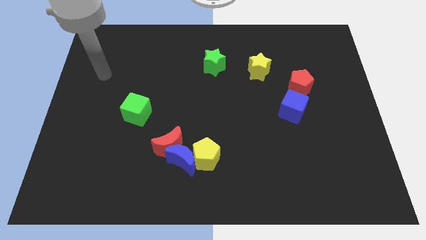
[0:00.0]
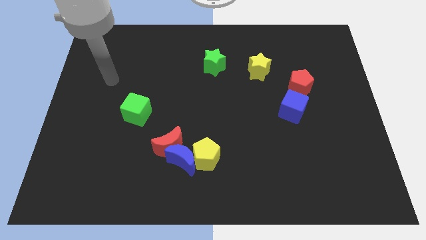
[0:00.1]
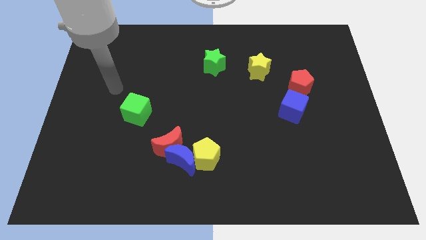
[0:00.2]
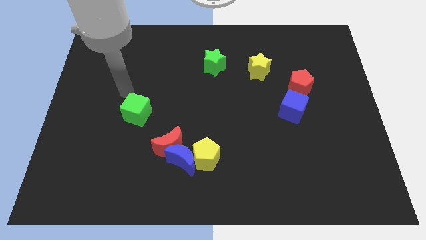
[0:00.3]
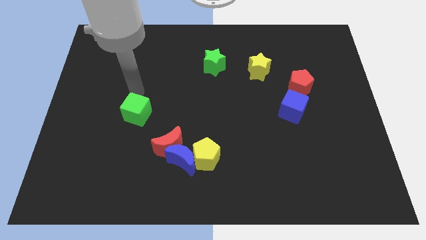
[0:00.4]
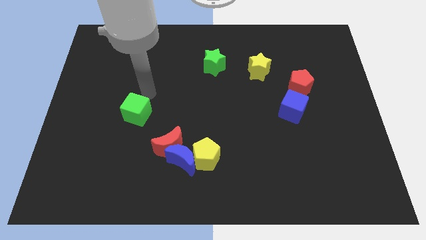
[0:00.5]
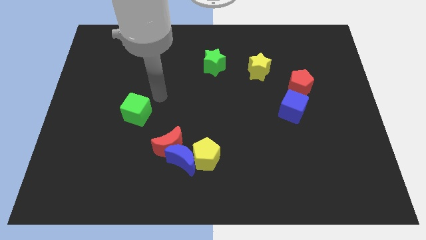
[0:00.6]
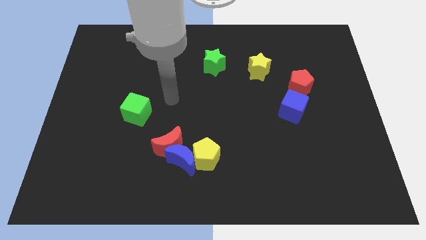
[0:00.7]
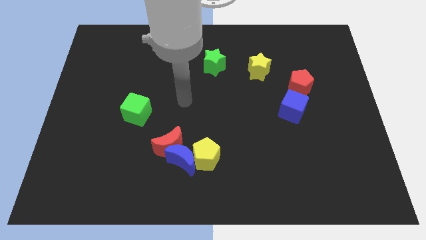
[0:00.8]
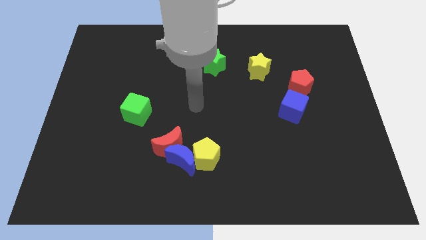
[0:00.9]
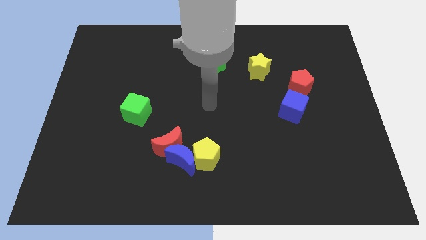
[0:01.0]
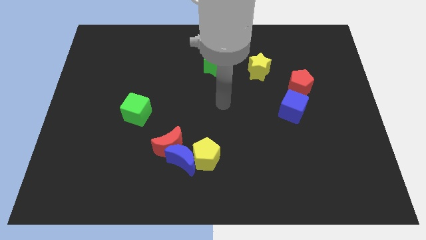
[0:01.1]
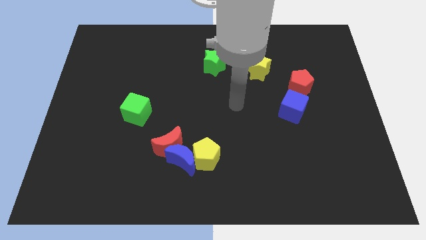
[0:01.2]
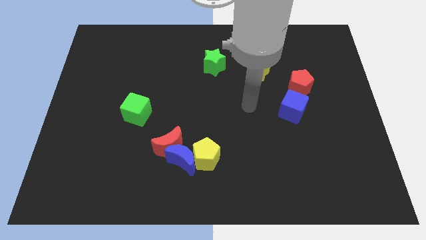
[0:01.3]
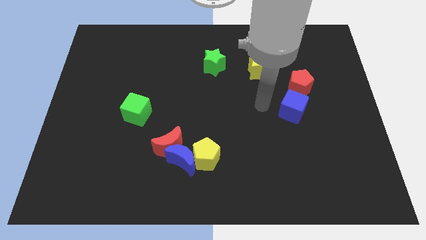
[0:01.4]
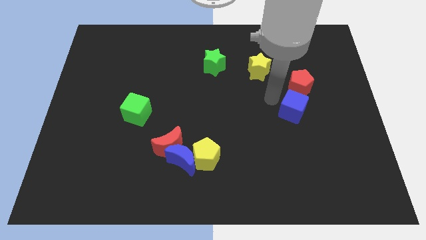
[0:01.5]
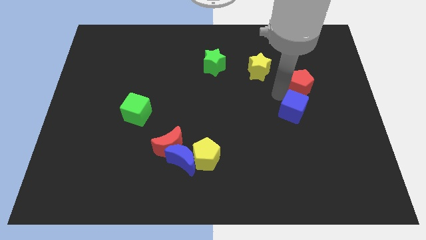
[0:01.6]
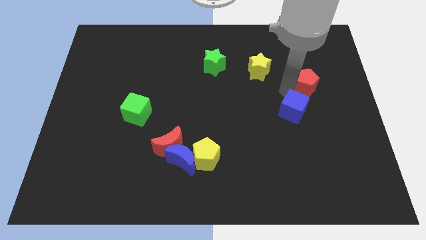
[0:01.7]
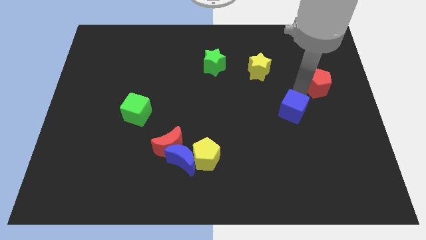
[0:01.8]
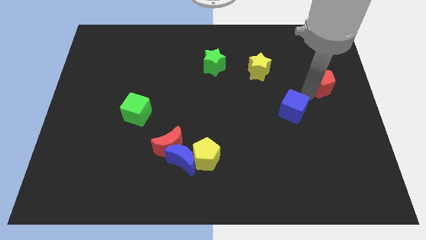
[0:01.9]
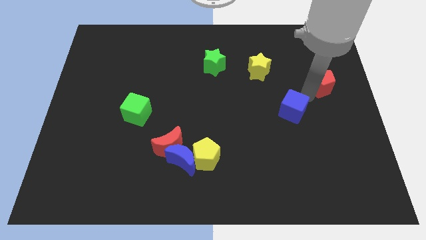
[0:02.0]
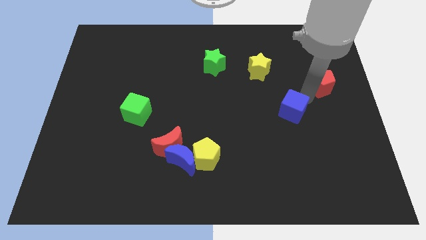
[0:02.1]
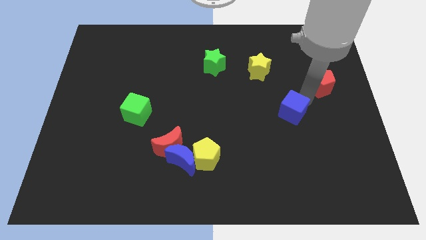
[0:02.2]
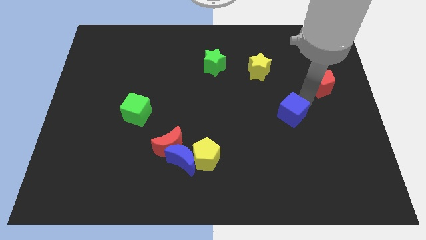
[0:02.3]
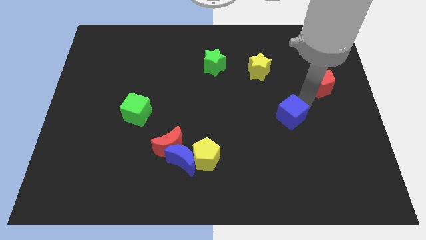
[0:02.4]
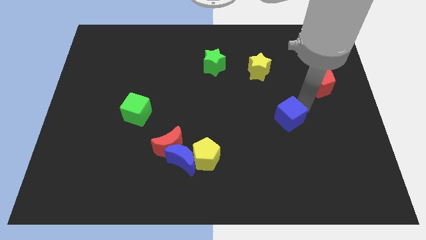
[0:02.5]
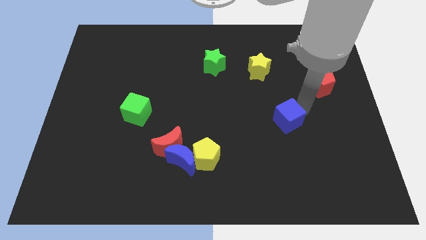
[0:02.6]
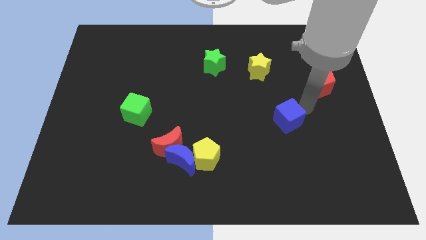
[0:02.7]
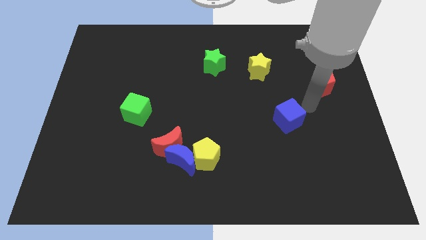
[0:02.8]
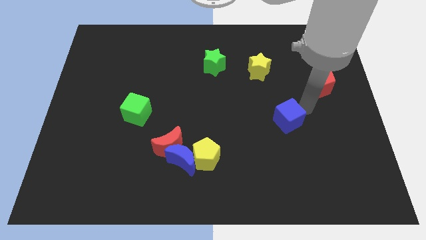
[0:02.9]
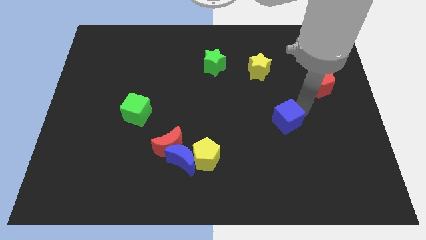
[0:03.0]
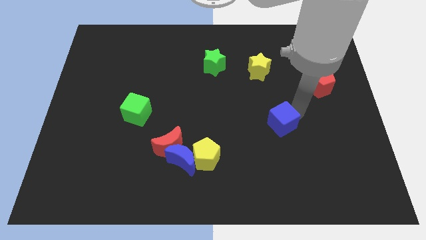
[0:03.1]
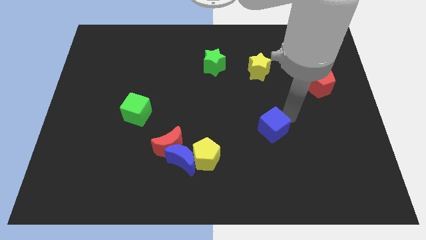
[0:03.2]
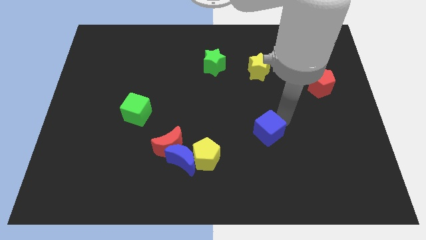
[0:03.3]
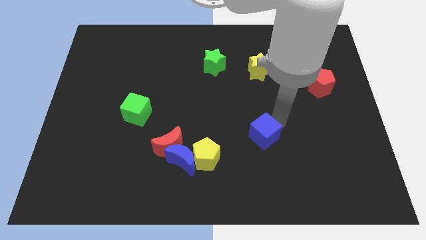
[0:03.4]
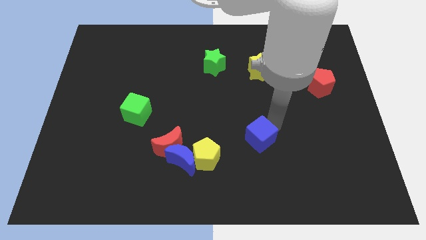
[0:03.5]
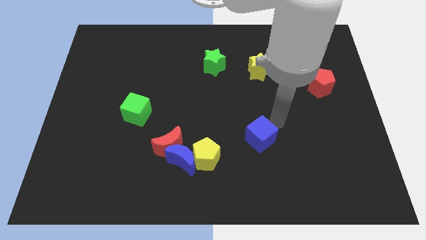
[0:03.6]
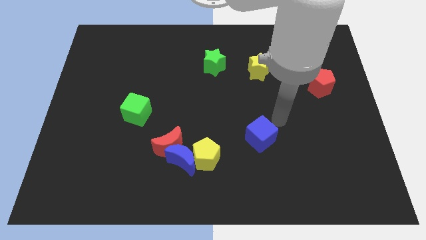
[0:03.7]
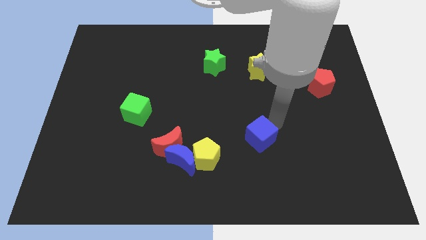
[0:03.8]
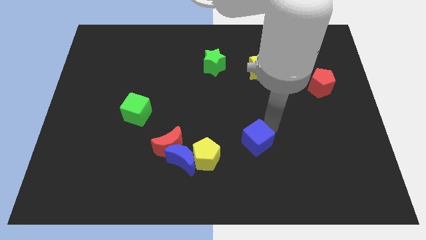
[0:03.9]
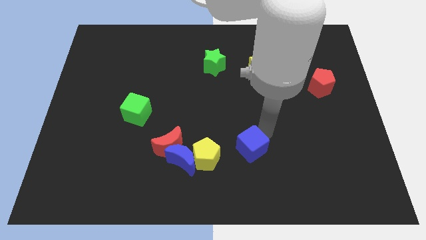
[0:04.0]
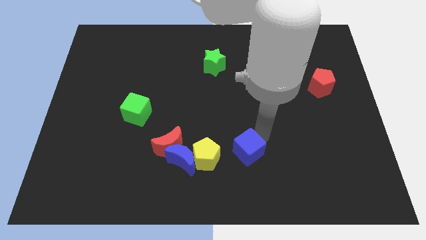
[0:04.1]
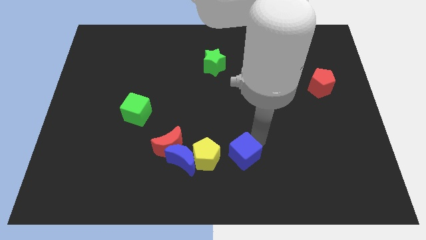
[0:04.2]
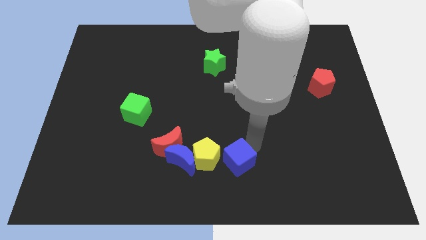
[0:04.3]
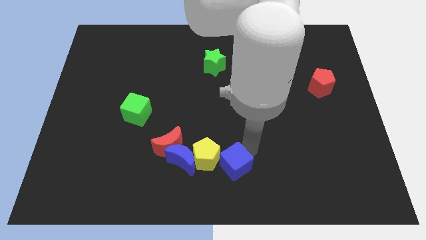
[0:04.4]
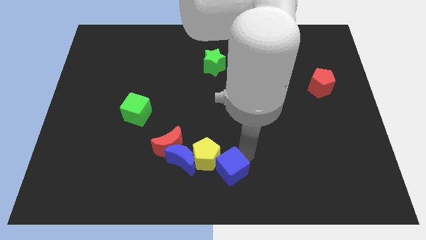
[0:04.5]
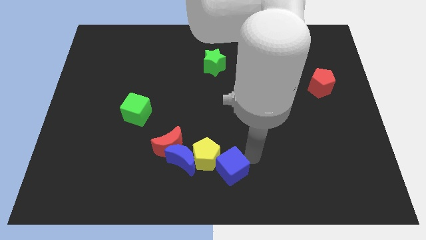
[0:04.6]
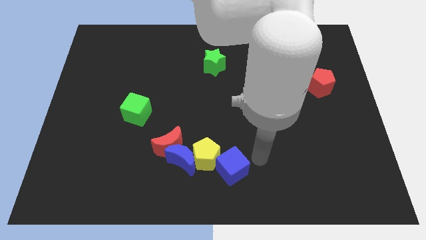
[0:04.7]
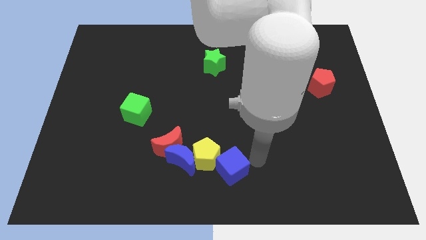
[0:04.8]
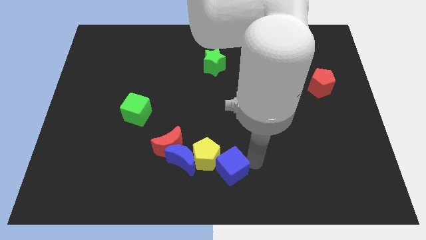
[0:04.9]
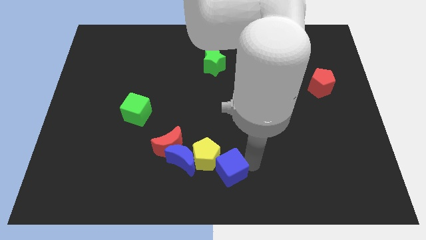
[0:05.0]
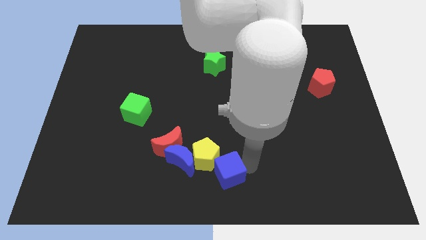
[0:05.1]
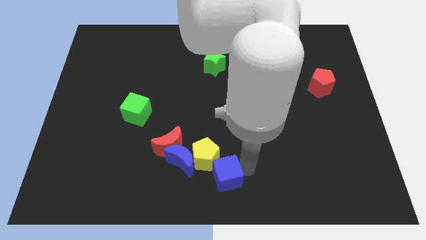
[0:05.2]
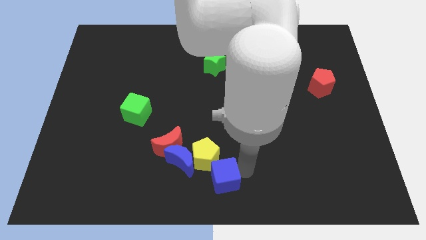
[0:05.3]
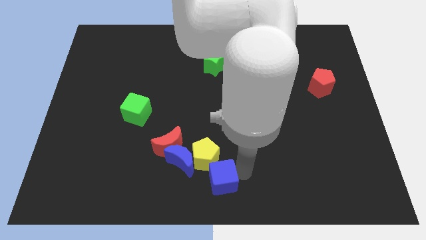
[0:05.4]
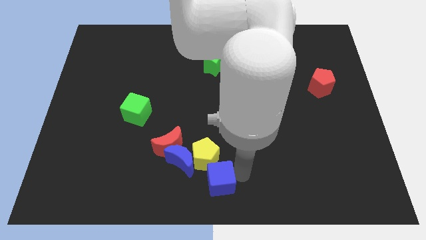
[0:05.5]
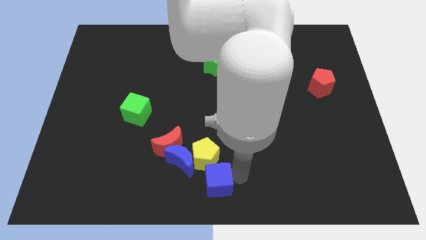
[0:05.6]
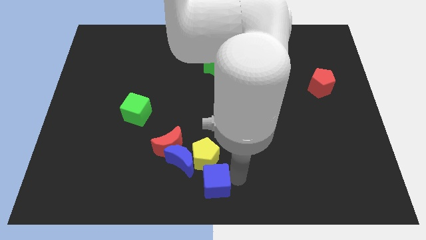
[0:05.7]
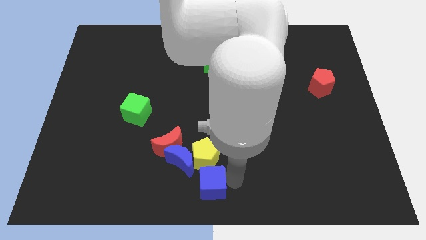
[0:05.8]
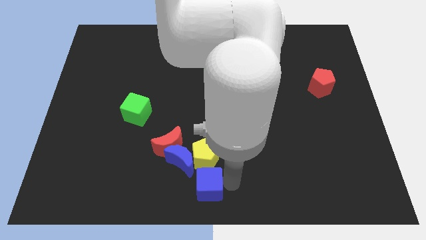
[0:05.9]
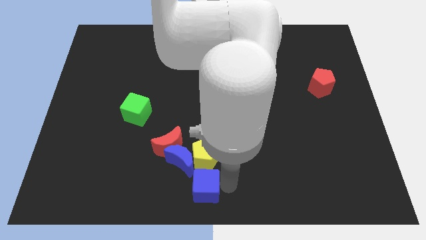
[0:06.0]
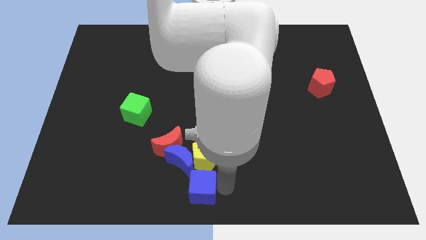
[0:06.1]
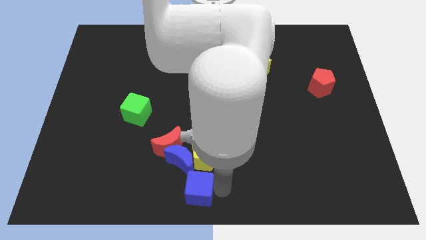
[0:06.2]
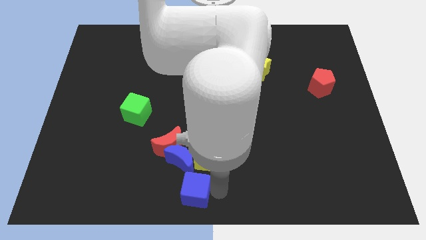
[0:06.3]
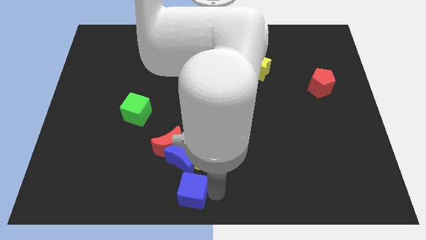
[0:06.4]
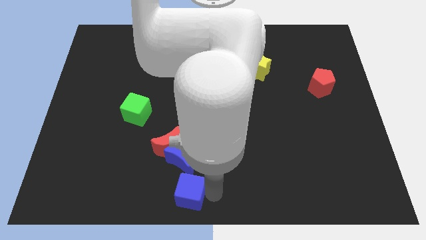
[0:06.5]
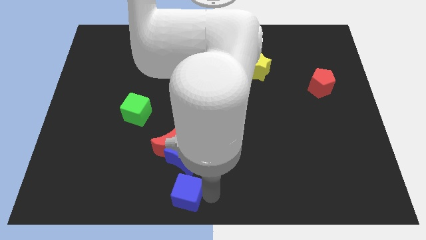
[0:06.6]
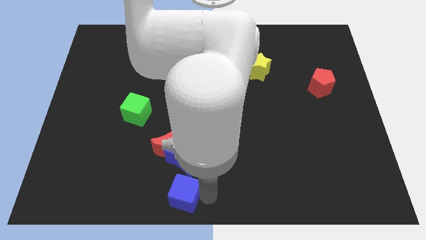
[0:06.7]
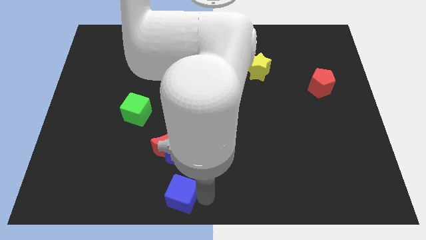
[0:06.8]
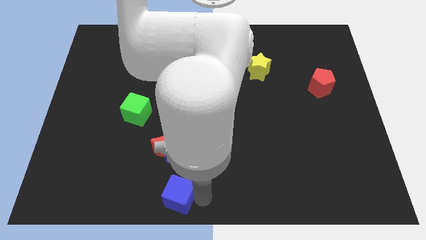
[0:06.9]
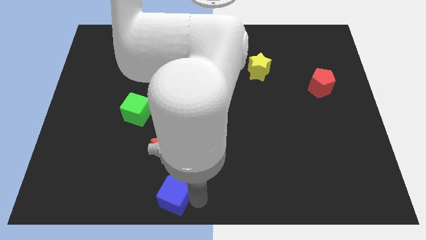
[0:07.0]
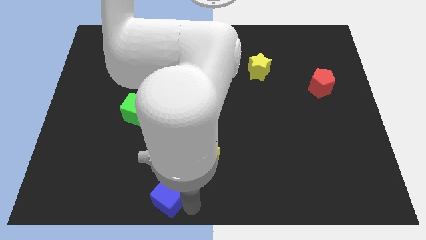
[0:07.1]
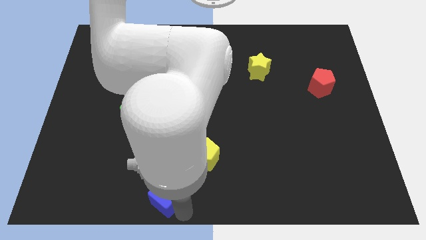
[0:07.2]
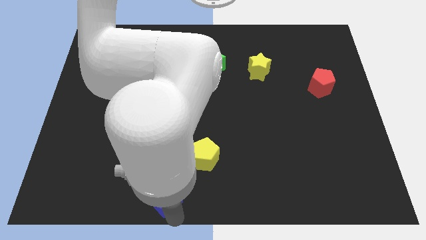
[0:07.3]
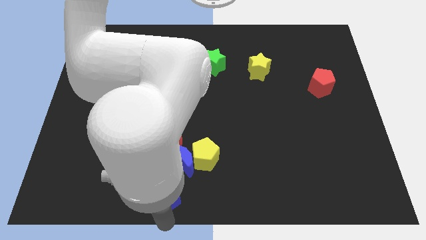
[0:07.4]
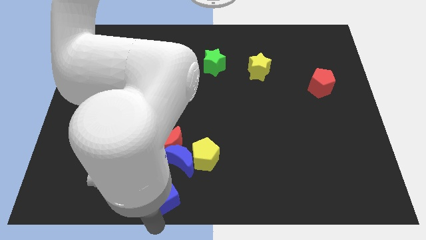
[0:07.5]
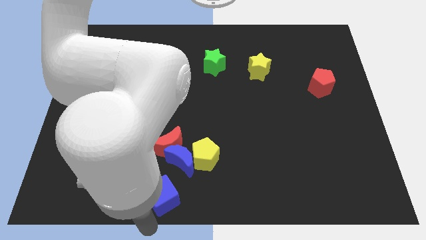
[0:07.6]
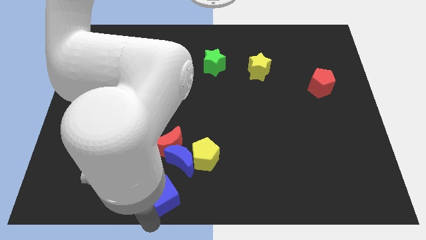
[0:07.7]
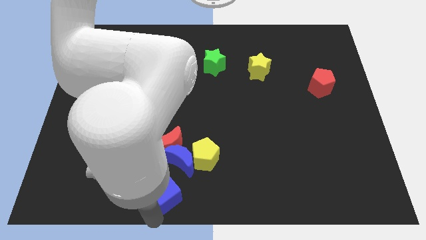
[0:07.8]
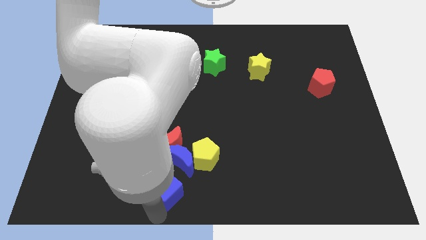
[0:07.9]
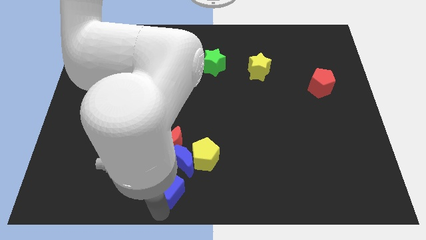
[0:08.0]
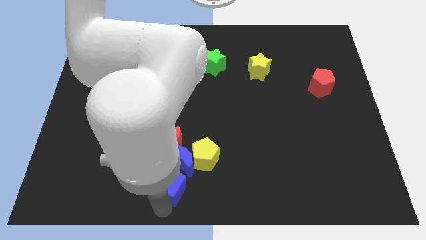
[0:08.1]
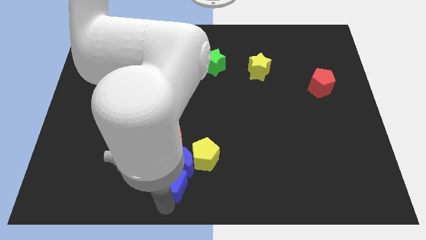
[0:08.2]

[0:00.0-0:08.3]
slide the blue cube to the blue moon
